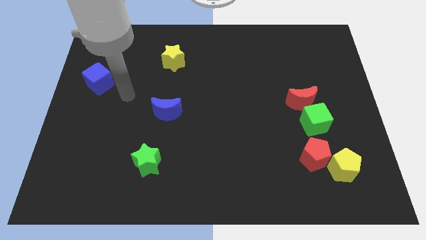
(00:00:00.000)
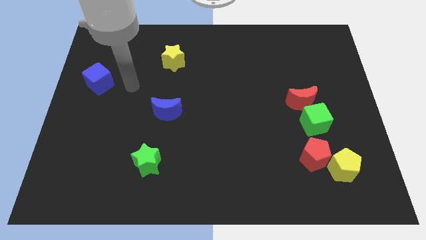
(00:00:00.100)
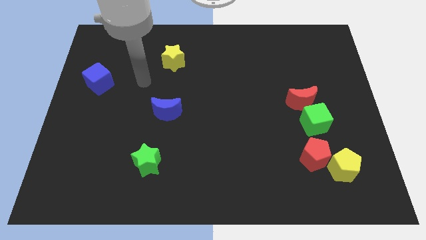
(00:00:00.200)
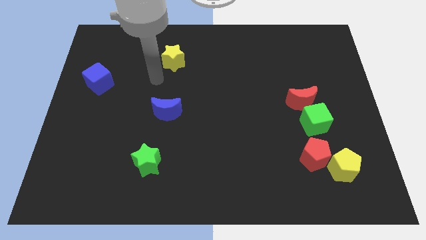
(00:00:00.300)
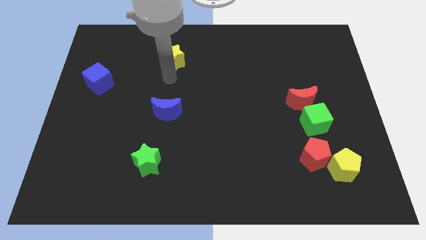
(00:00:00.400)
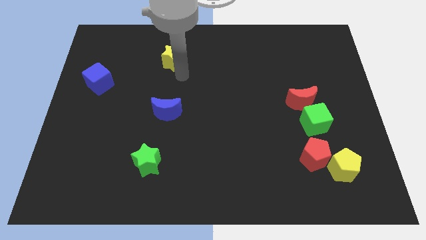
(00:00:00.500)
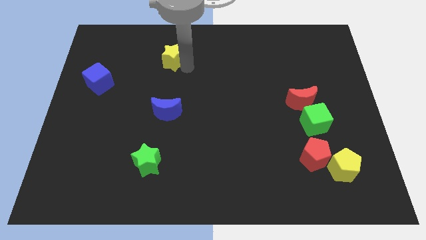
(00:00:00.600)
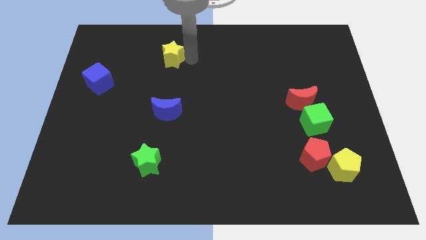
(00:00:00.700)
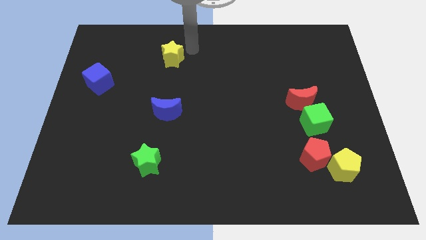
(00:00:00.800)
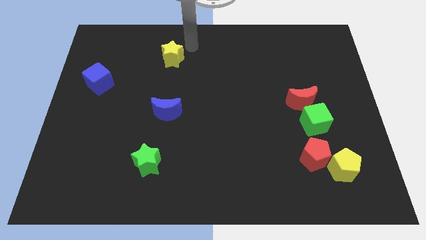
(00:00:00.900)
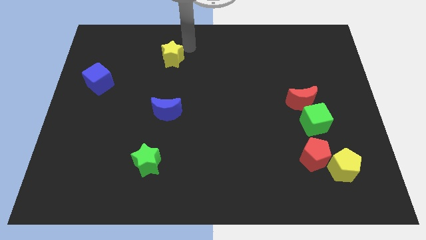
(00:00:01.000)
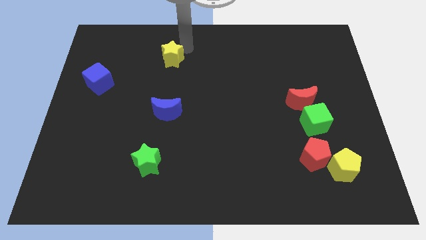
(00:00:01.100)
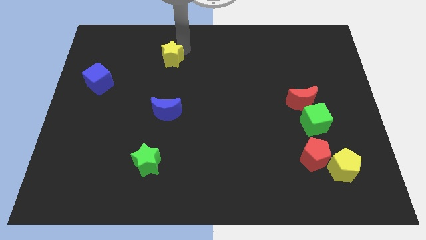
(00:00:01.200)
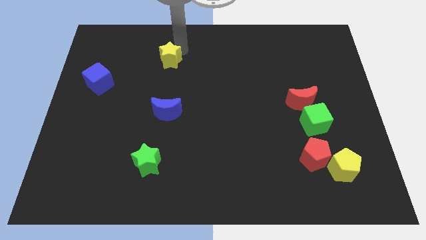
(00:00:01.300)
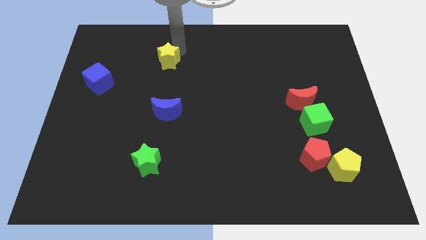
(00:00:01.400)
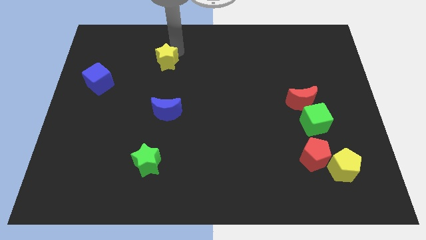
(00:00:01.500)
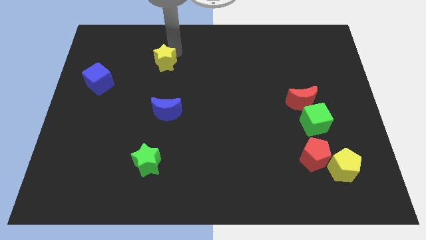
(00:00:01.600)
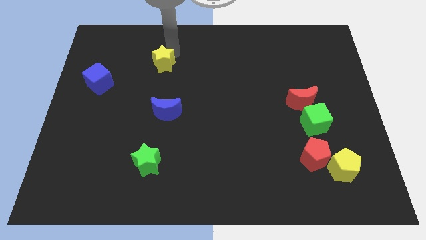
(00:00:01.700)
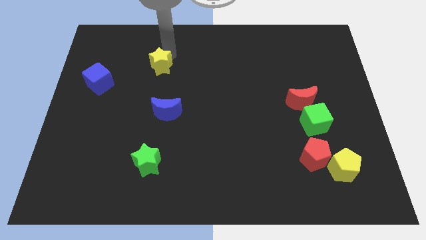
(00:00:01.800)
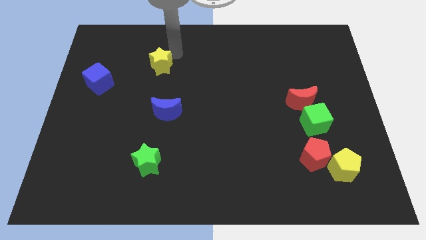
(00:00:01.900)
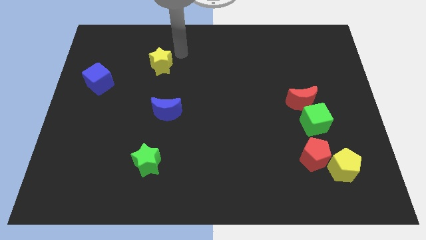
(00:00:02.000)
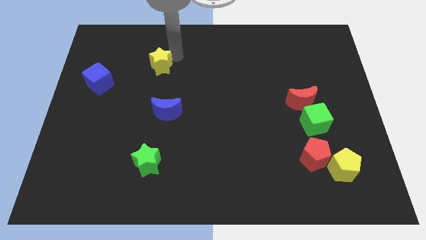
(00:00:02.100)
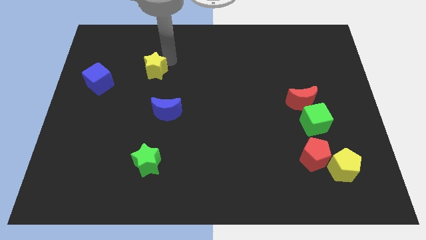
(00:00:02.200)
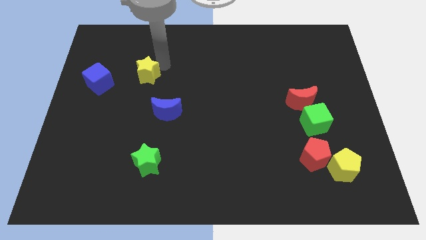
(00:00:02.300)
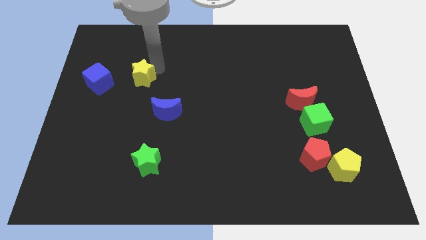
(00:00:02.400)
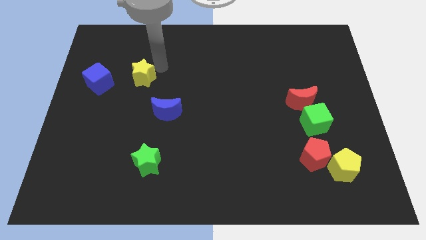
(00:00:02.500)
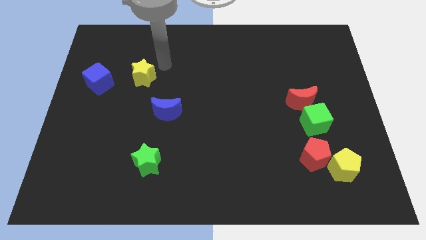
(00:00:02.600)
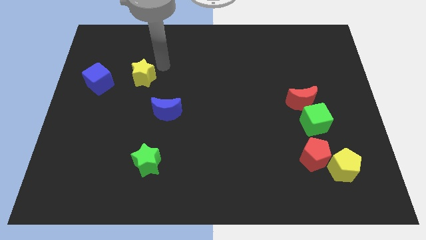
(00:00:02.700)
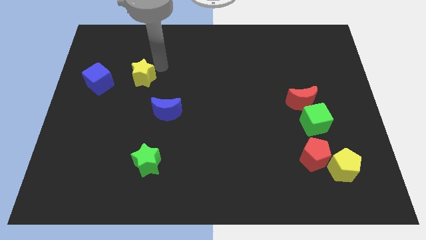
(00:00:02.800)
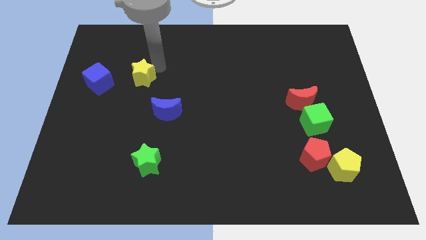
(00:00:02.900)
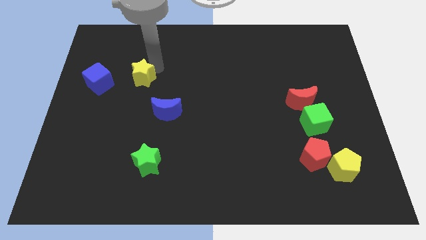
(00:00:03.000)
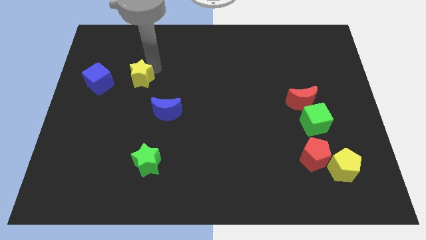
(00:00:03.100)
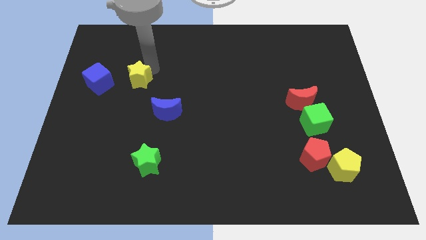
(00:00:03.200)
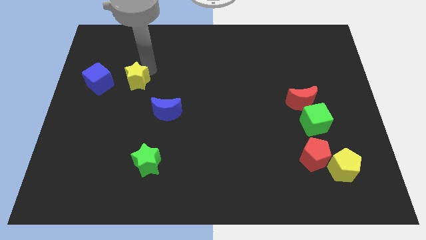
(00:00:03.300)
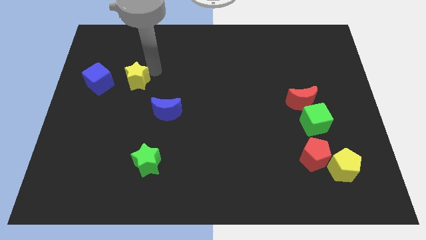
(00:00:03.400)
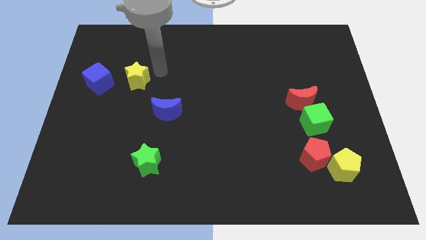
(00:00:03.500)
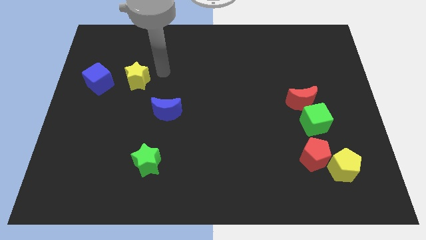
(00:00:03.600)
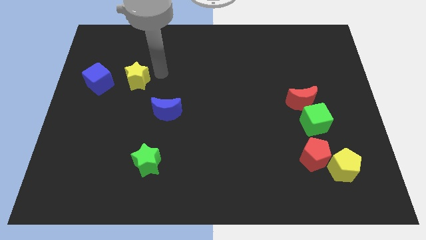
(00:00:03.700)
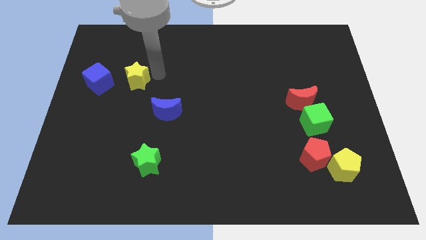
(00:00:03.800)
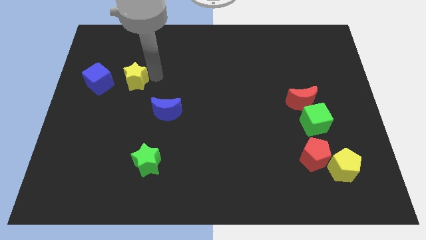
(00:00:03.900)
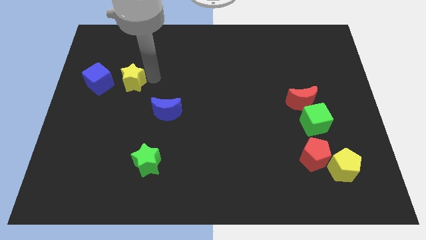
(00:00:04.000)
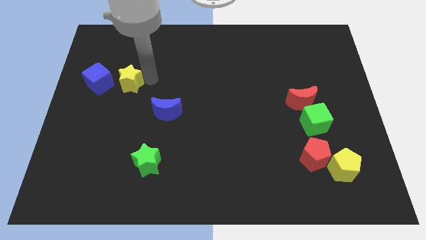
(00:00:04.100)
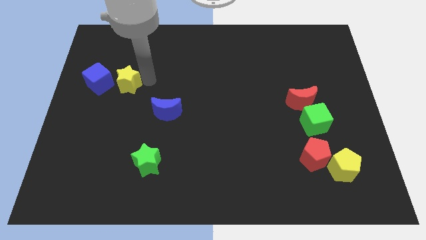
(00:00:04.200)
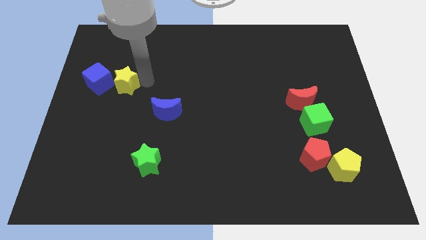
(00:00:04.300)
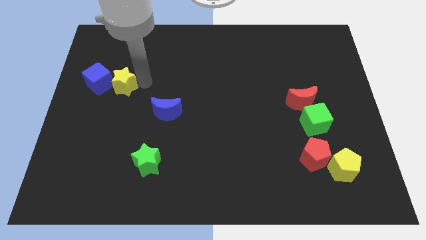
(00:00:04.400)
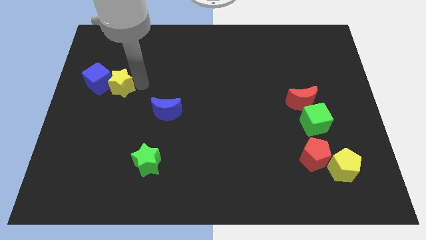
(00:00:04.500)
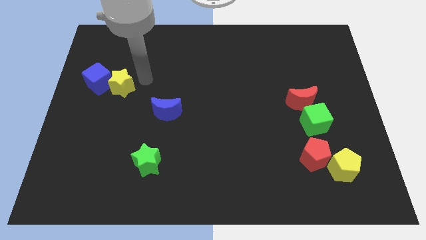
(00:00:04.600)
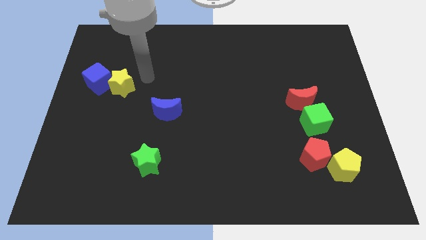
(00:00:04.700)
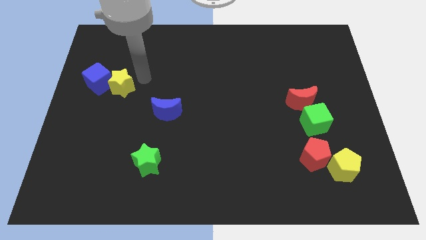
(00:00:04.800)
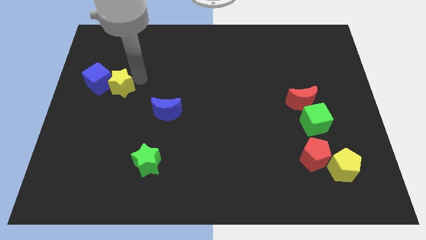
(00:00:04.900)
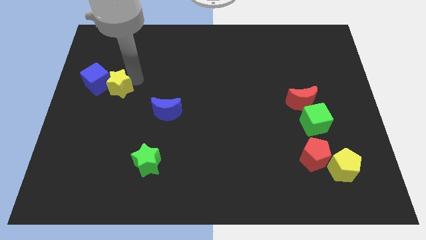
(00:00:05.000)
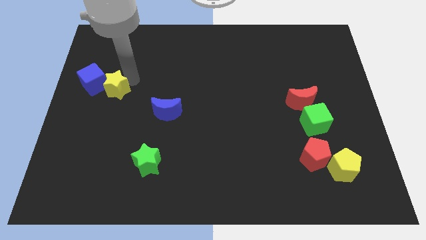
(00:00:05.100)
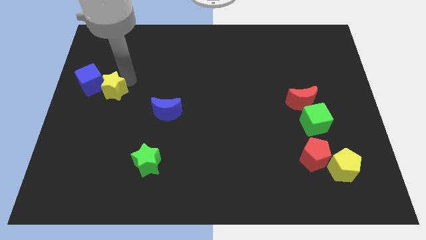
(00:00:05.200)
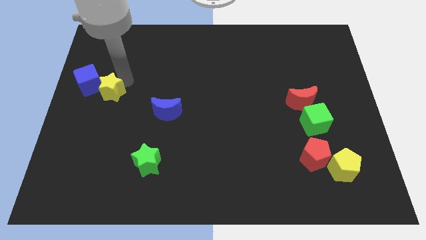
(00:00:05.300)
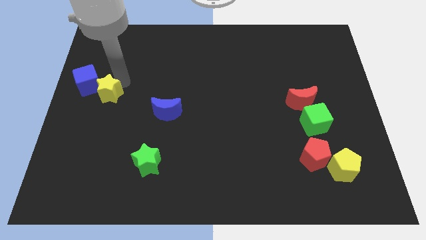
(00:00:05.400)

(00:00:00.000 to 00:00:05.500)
move the yellow star to the left side

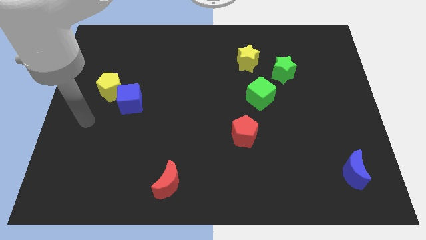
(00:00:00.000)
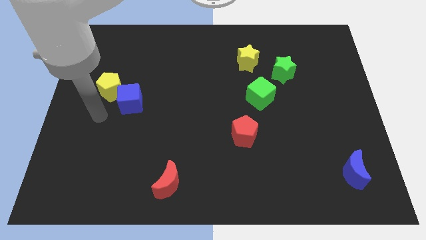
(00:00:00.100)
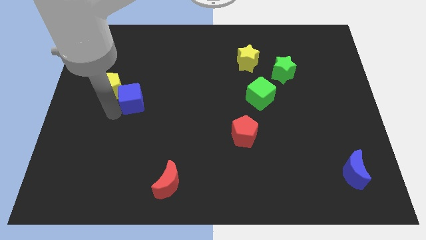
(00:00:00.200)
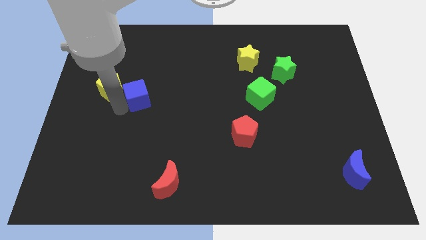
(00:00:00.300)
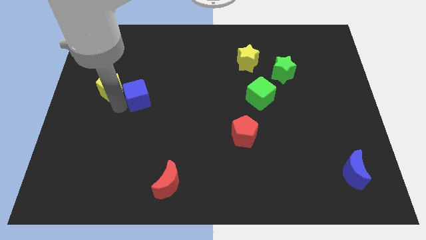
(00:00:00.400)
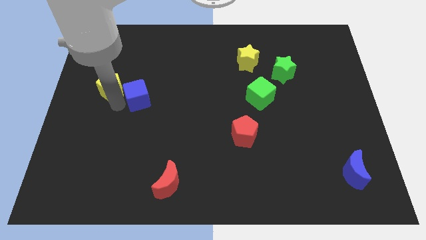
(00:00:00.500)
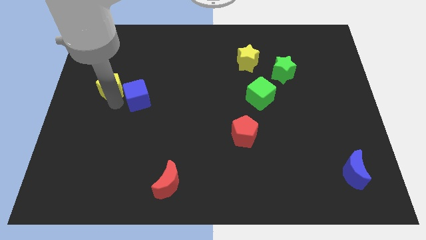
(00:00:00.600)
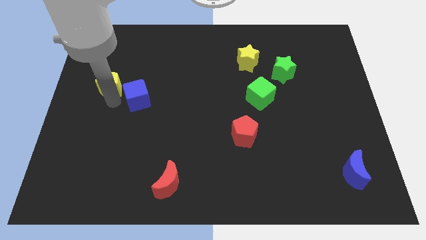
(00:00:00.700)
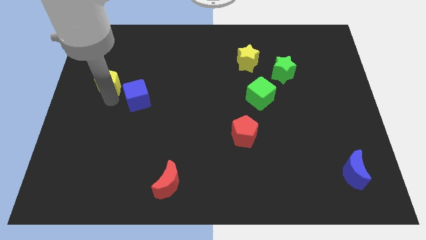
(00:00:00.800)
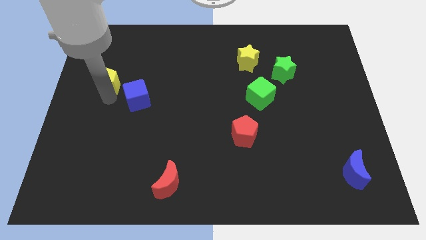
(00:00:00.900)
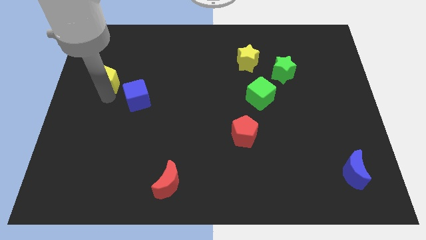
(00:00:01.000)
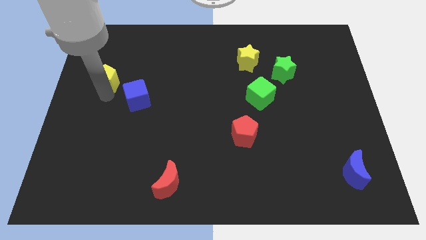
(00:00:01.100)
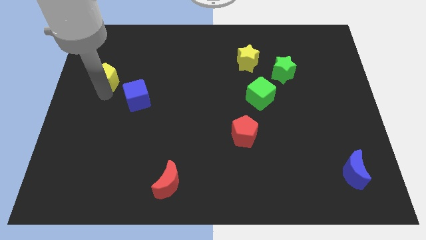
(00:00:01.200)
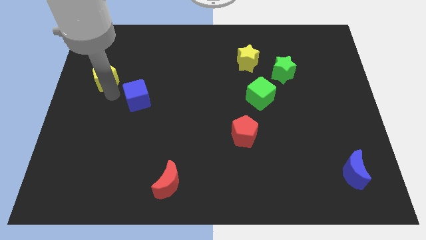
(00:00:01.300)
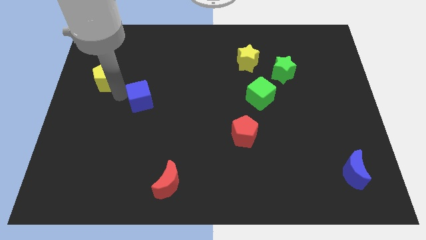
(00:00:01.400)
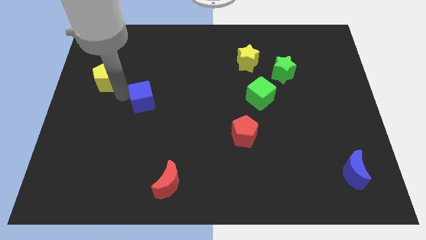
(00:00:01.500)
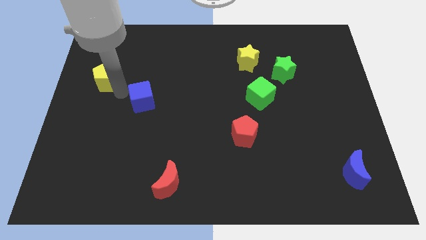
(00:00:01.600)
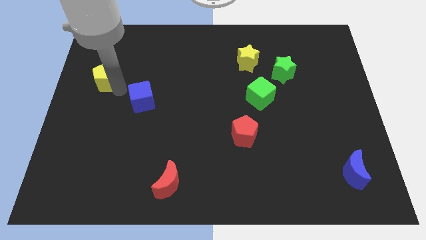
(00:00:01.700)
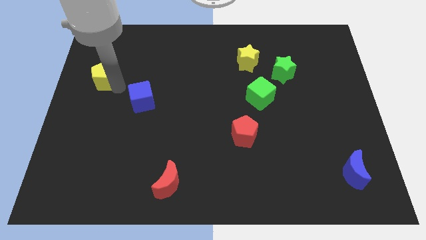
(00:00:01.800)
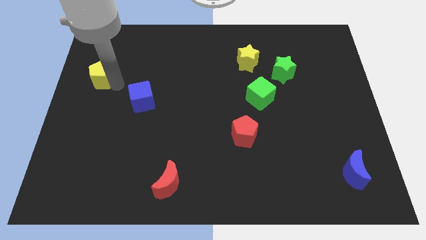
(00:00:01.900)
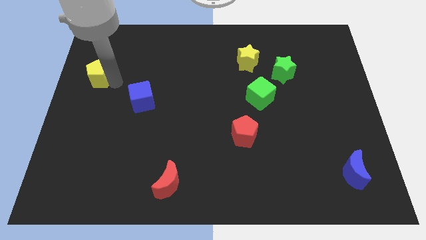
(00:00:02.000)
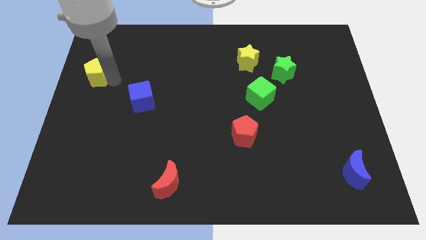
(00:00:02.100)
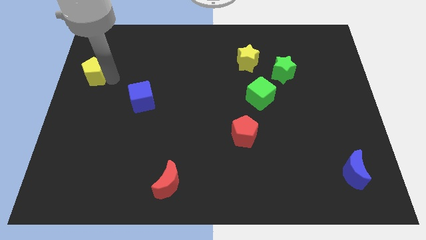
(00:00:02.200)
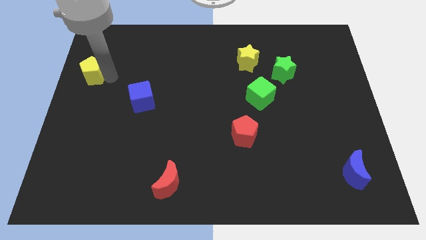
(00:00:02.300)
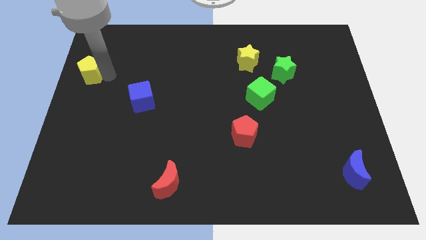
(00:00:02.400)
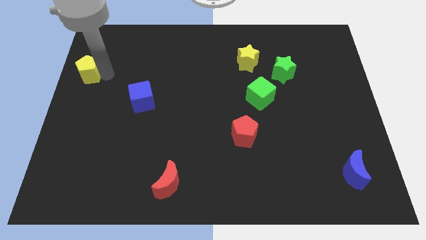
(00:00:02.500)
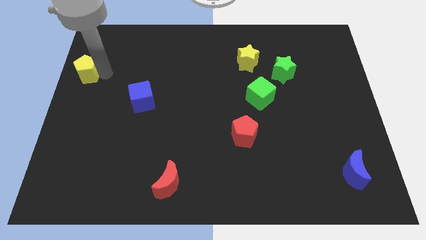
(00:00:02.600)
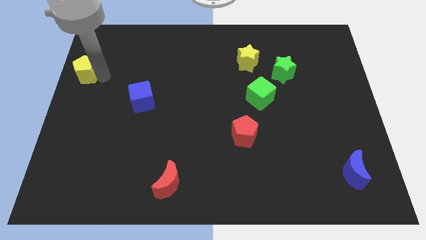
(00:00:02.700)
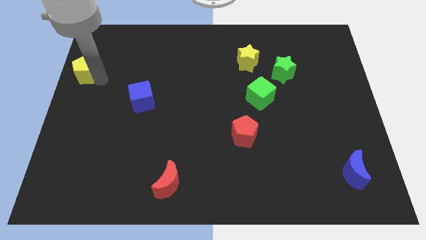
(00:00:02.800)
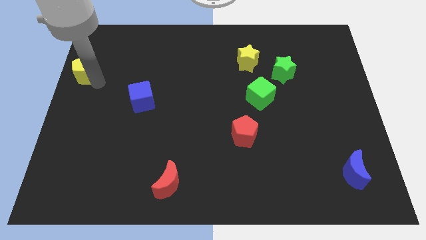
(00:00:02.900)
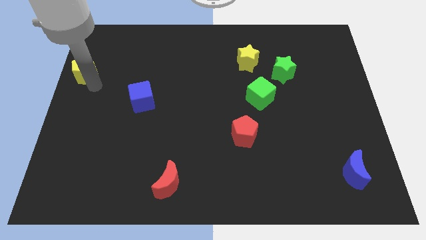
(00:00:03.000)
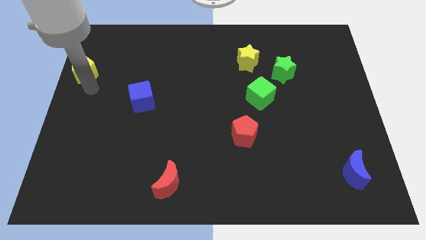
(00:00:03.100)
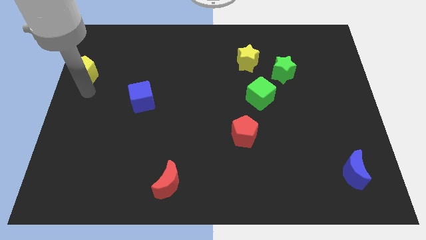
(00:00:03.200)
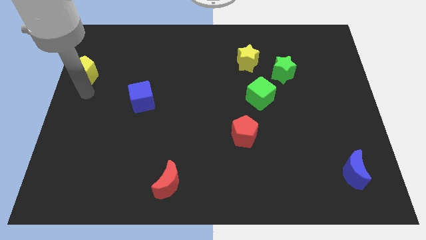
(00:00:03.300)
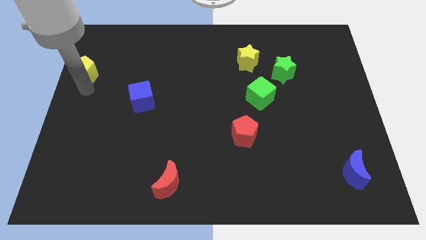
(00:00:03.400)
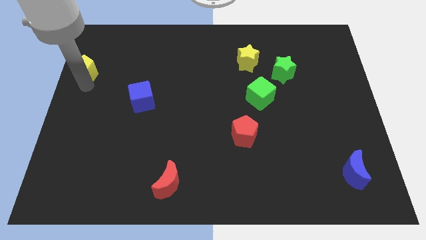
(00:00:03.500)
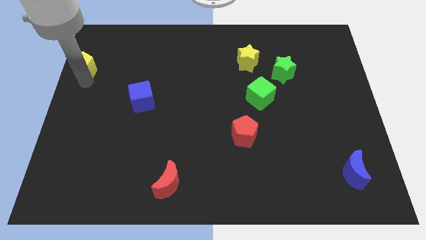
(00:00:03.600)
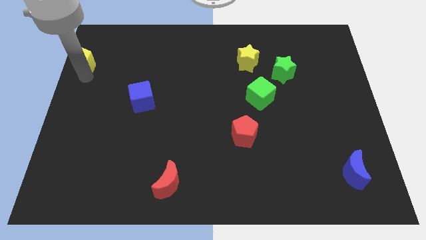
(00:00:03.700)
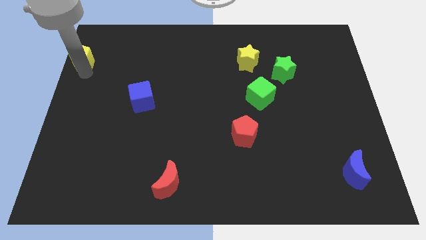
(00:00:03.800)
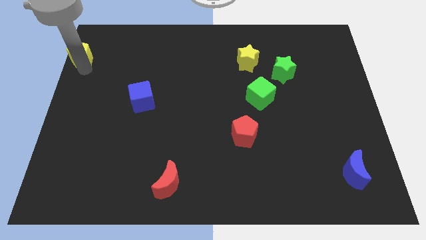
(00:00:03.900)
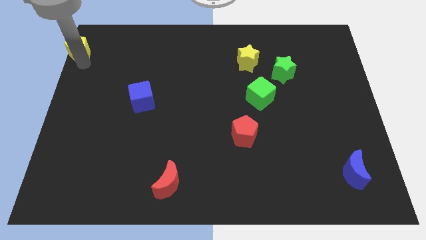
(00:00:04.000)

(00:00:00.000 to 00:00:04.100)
move the yellow pentagon to the top left corner
